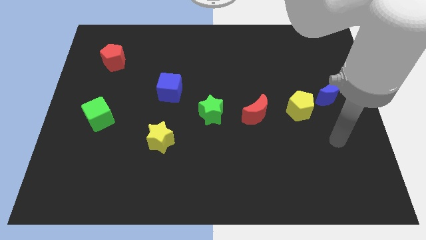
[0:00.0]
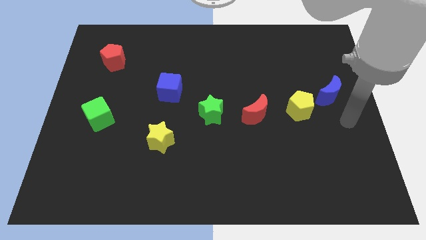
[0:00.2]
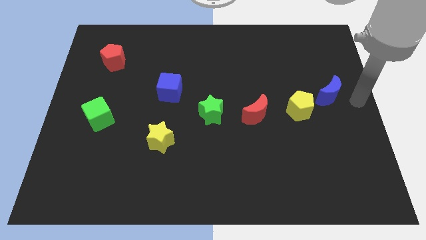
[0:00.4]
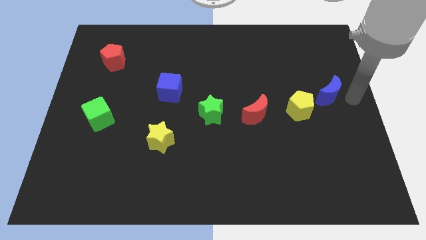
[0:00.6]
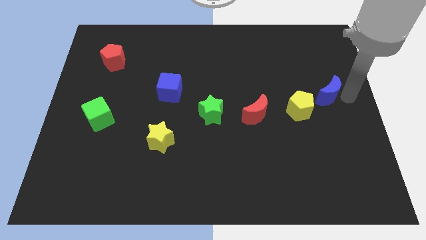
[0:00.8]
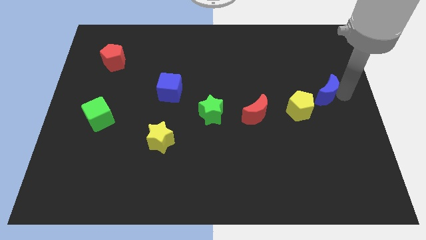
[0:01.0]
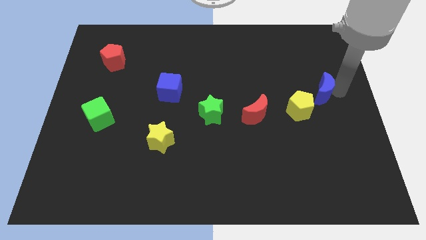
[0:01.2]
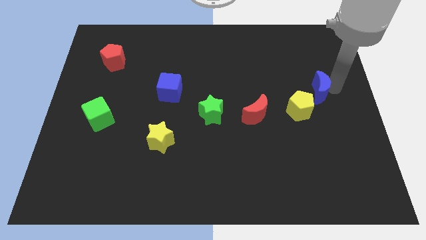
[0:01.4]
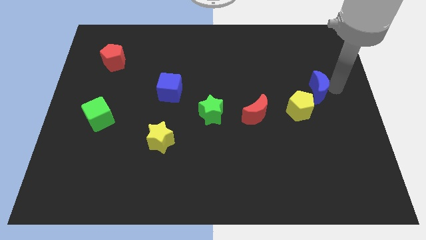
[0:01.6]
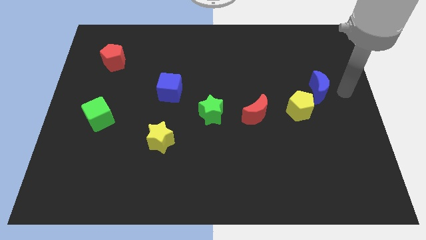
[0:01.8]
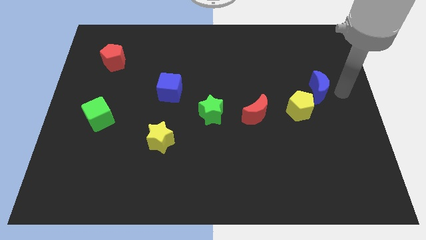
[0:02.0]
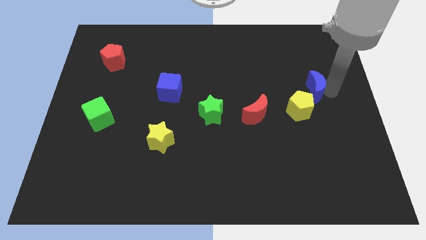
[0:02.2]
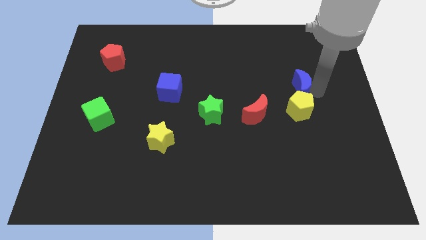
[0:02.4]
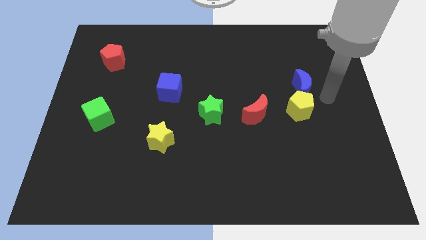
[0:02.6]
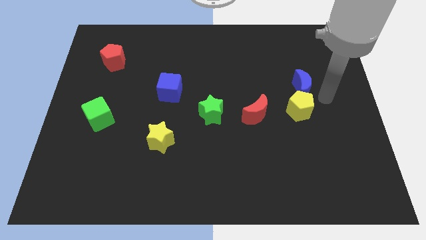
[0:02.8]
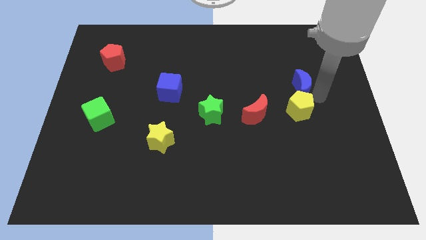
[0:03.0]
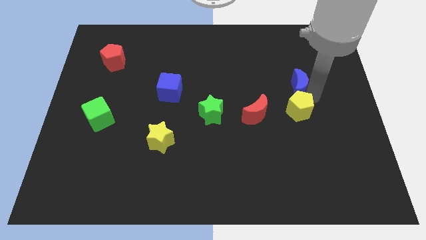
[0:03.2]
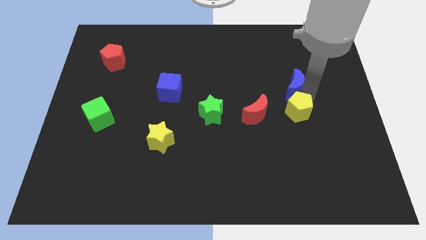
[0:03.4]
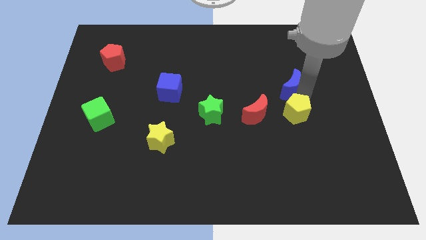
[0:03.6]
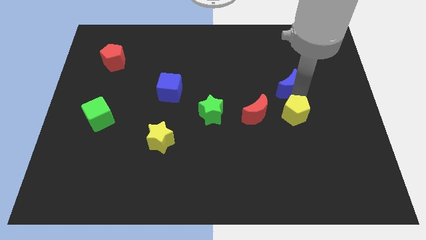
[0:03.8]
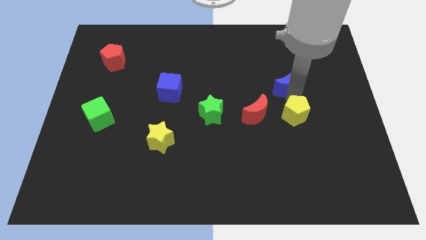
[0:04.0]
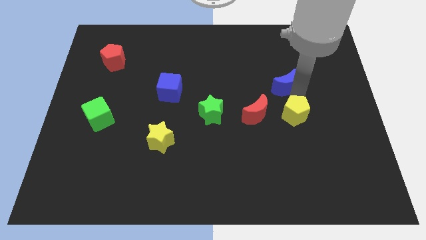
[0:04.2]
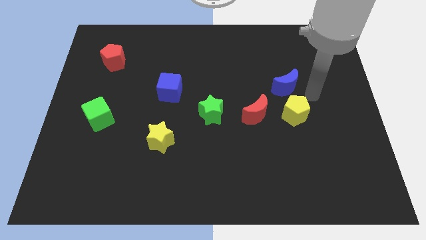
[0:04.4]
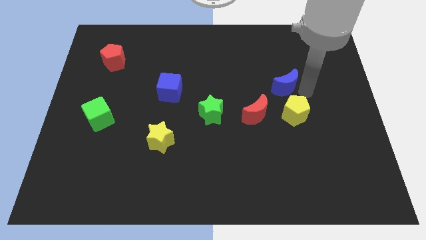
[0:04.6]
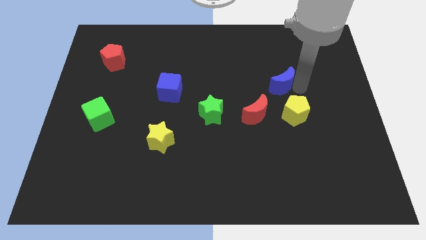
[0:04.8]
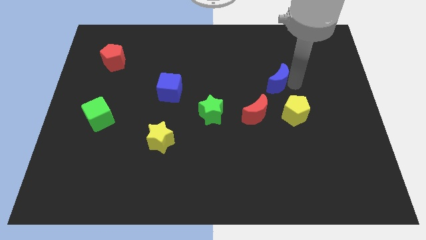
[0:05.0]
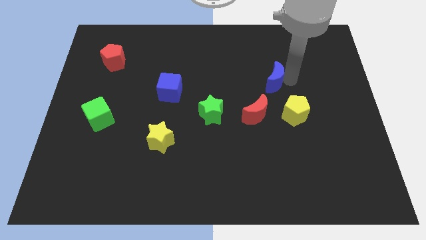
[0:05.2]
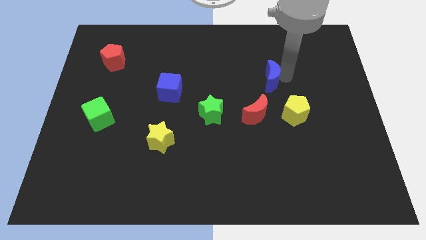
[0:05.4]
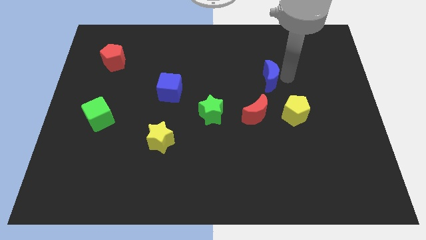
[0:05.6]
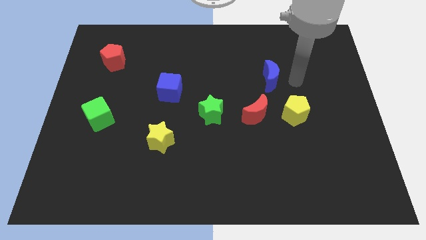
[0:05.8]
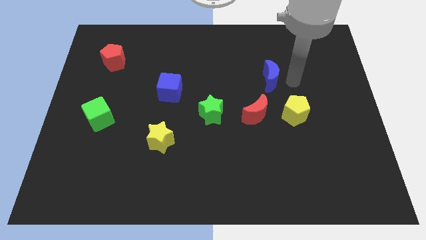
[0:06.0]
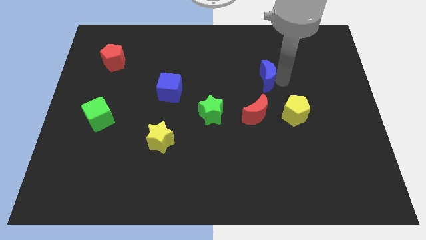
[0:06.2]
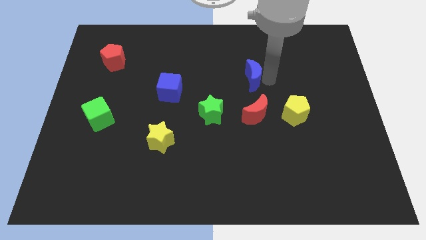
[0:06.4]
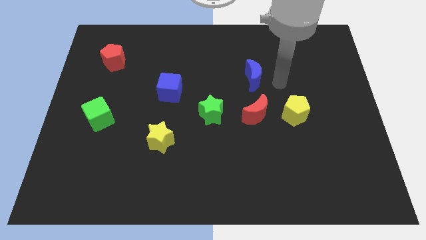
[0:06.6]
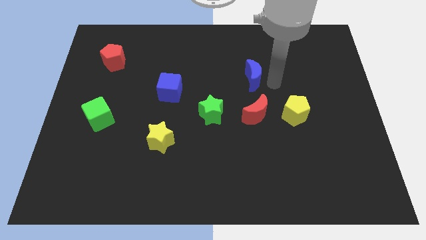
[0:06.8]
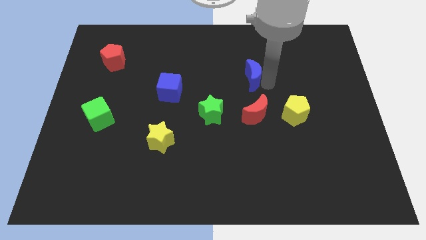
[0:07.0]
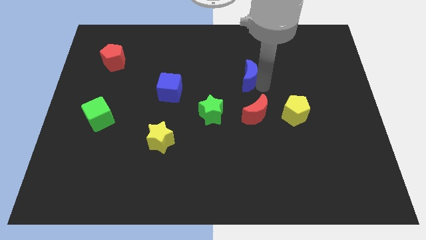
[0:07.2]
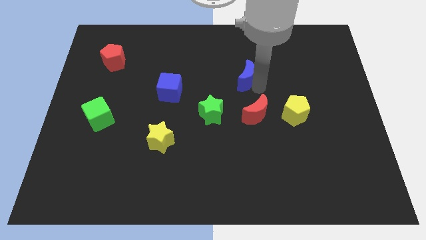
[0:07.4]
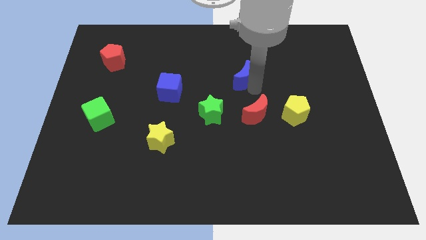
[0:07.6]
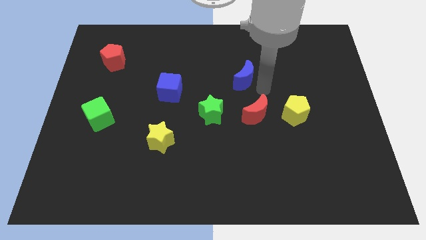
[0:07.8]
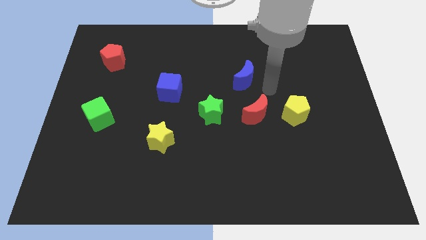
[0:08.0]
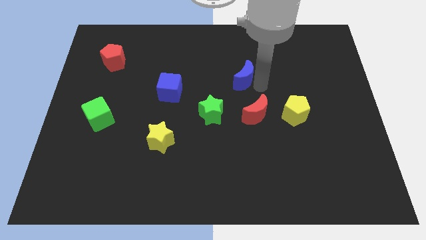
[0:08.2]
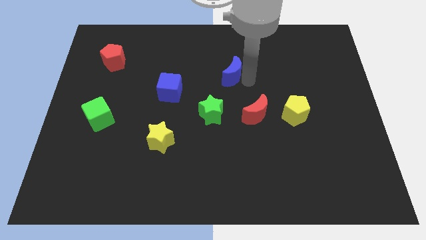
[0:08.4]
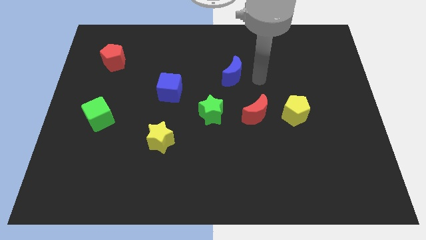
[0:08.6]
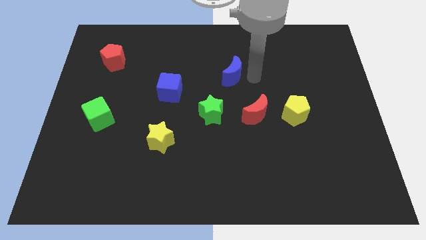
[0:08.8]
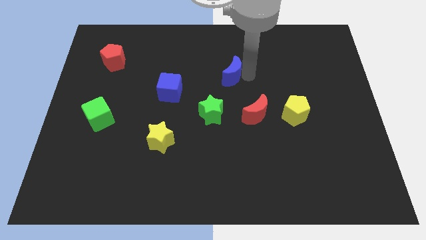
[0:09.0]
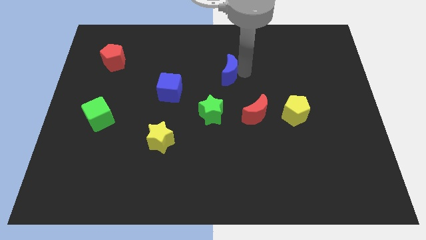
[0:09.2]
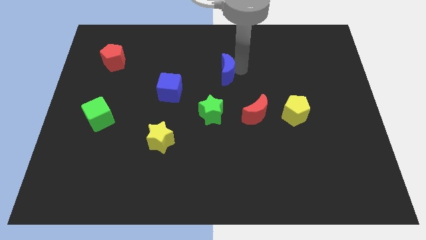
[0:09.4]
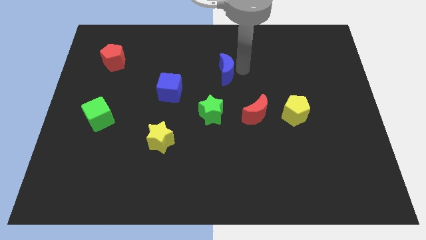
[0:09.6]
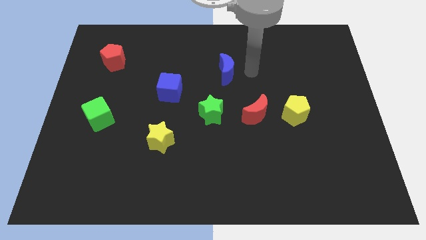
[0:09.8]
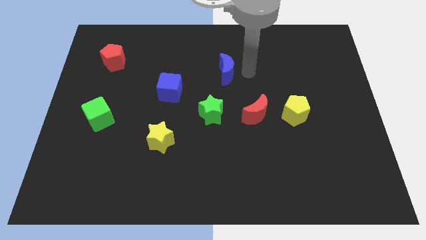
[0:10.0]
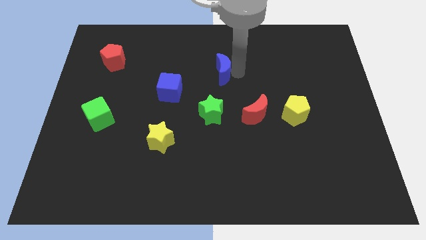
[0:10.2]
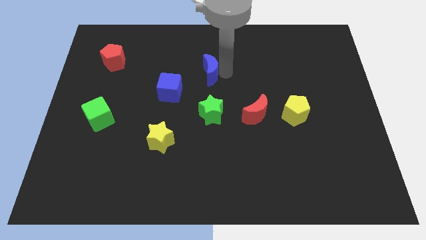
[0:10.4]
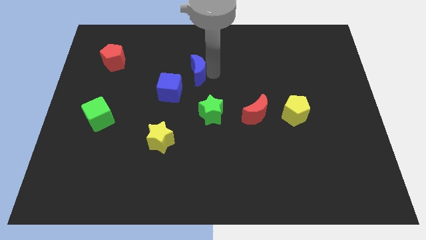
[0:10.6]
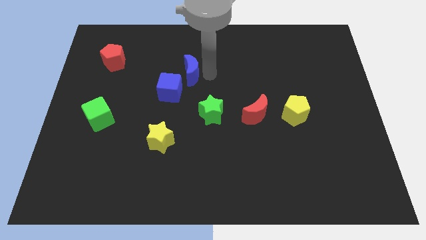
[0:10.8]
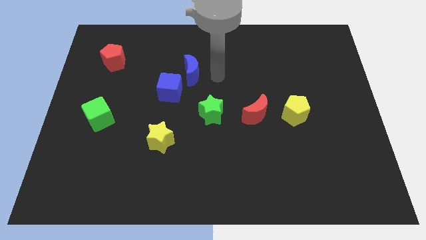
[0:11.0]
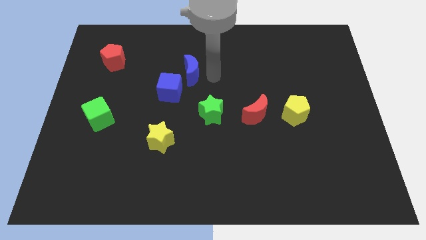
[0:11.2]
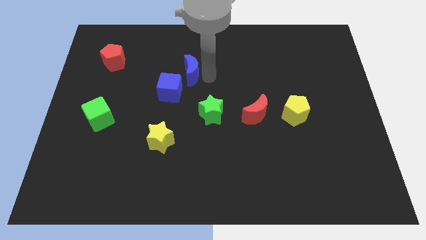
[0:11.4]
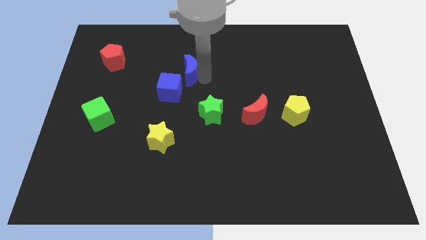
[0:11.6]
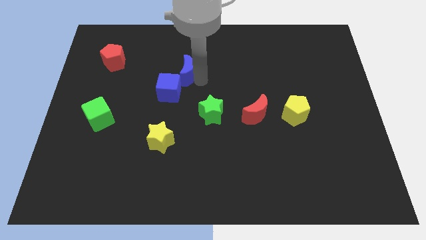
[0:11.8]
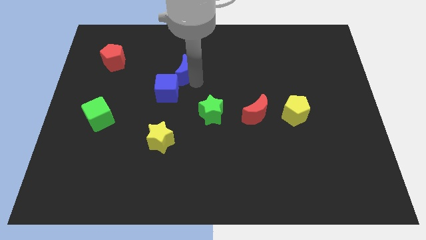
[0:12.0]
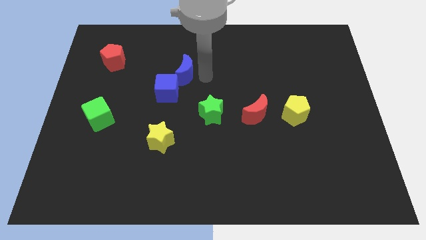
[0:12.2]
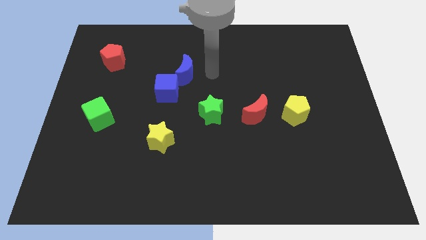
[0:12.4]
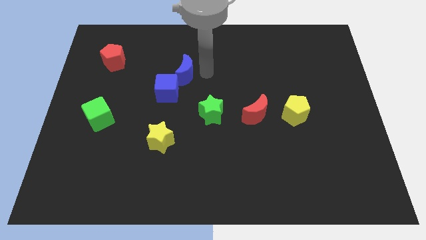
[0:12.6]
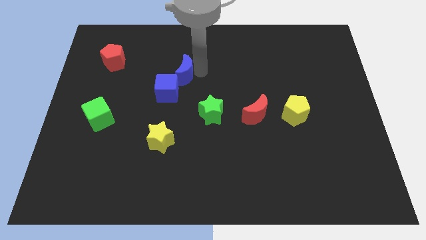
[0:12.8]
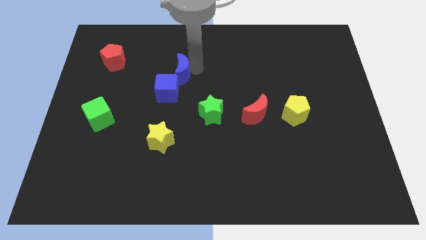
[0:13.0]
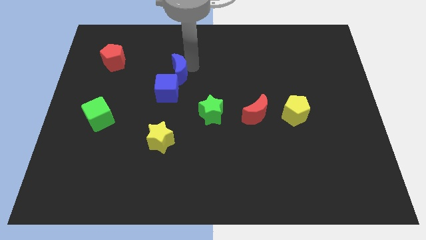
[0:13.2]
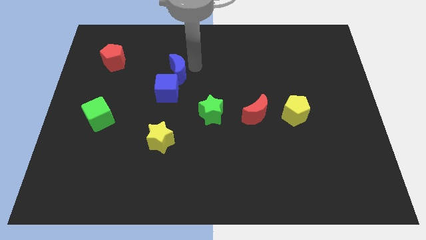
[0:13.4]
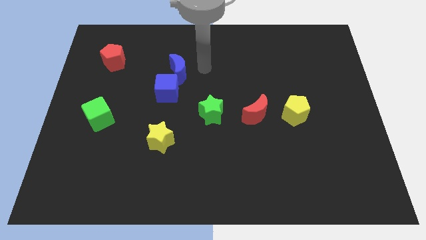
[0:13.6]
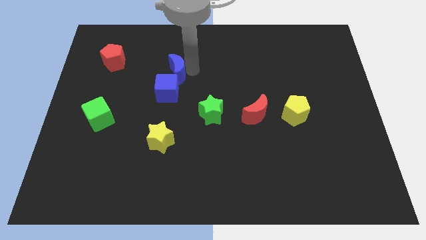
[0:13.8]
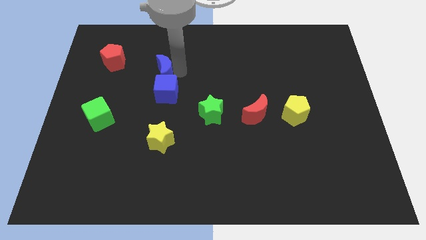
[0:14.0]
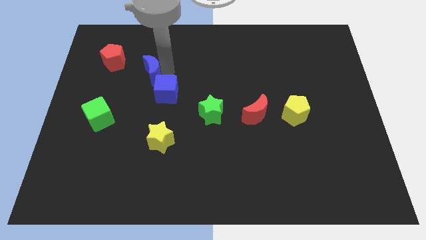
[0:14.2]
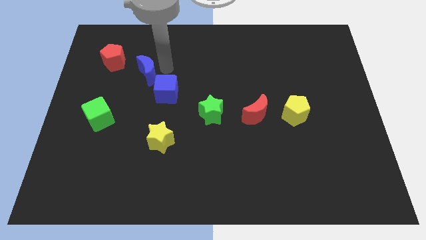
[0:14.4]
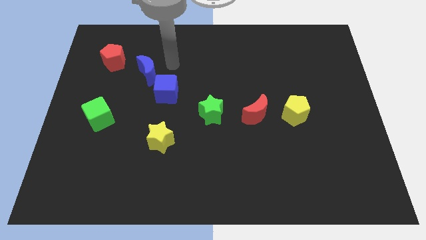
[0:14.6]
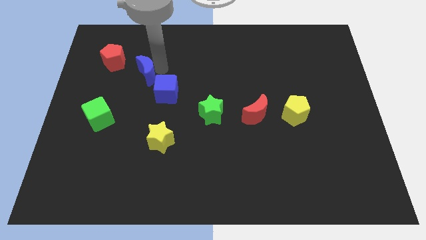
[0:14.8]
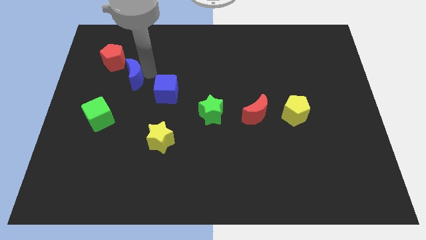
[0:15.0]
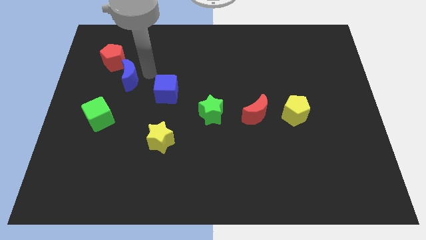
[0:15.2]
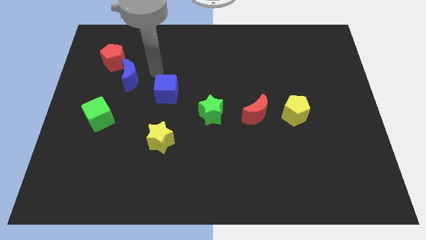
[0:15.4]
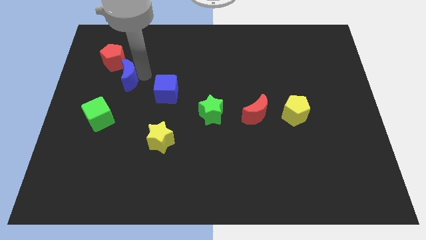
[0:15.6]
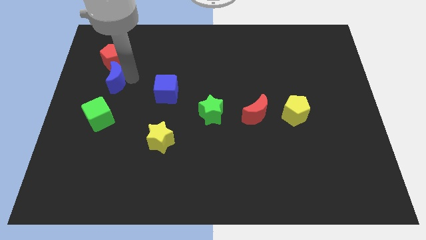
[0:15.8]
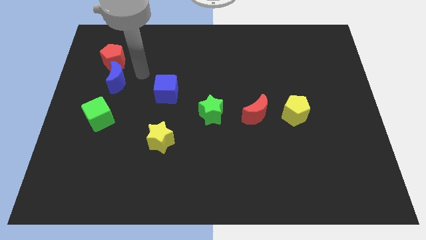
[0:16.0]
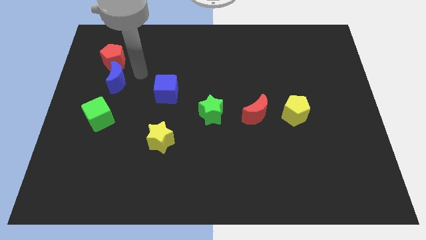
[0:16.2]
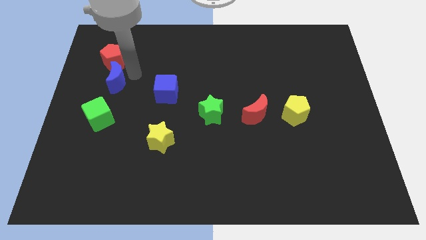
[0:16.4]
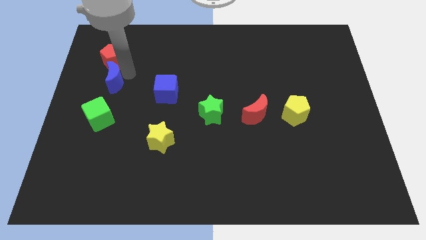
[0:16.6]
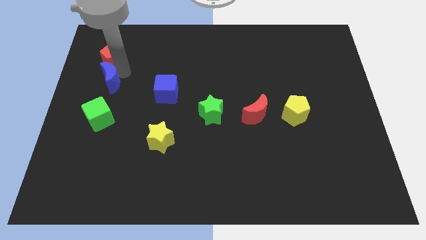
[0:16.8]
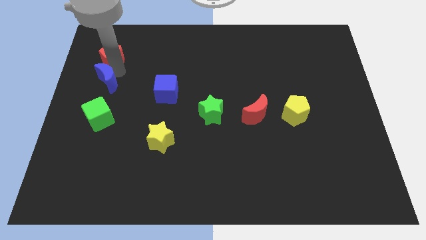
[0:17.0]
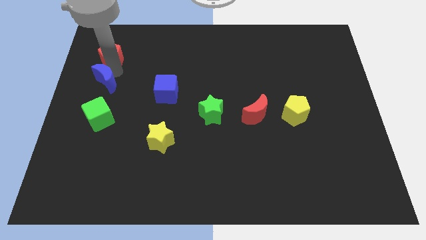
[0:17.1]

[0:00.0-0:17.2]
put the blue moon to the left side
